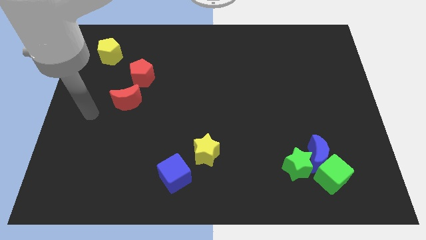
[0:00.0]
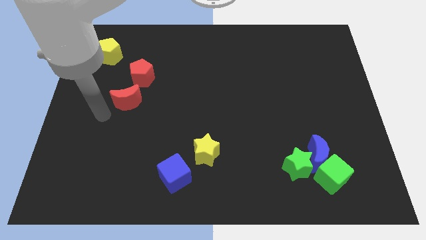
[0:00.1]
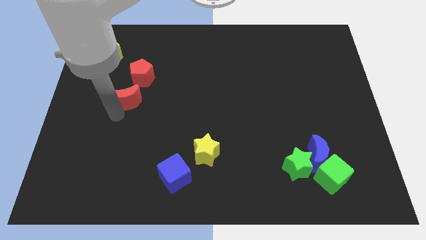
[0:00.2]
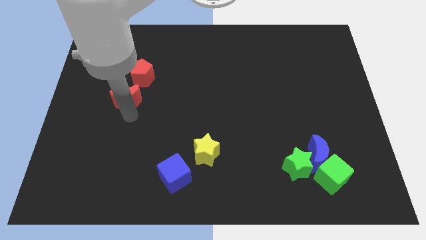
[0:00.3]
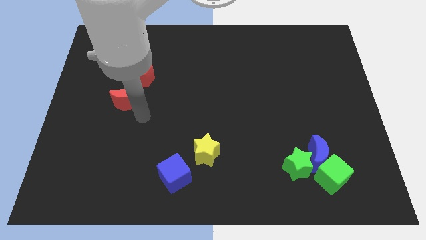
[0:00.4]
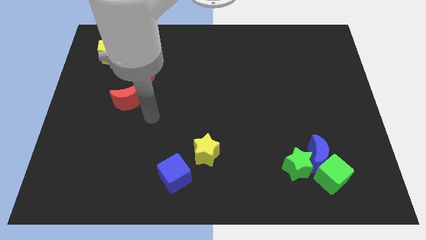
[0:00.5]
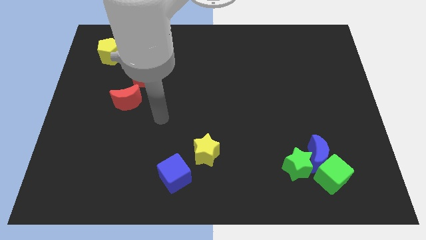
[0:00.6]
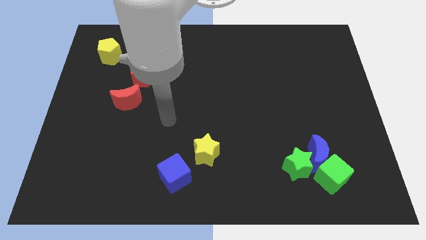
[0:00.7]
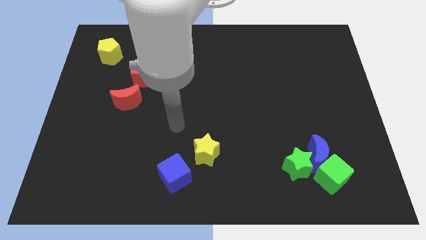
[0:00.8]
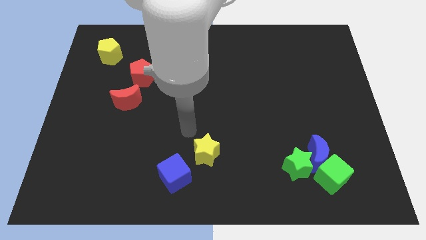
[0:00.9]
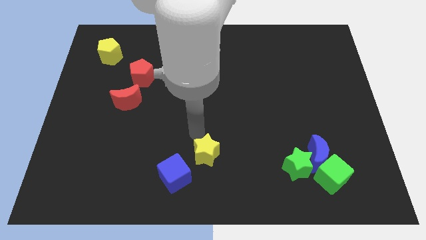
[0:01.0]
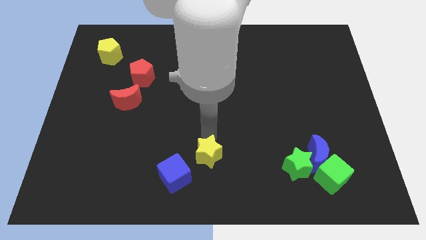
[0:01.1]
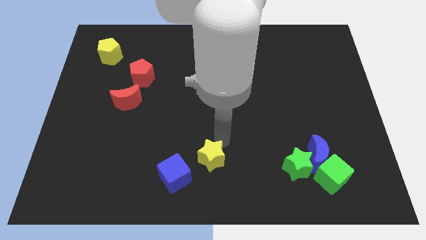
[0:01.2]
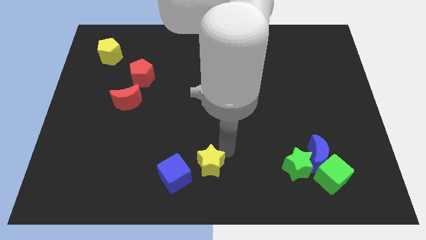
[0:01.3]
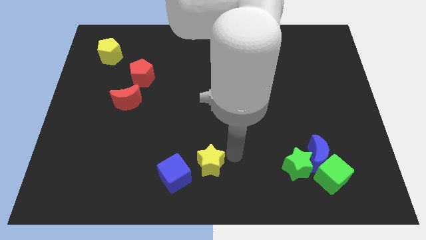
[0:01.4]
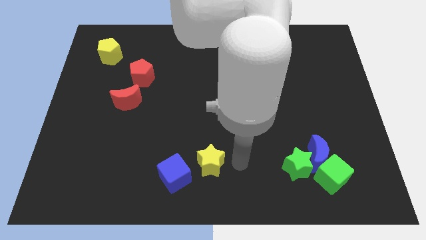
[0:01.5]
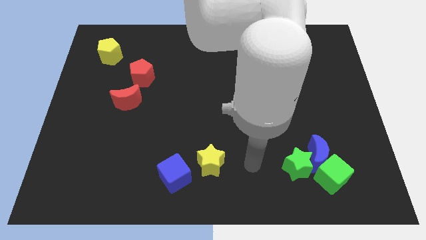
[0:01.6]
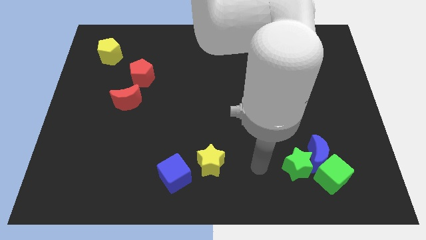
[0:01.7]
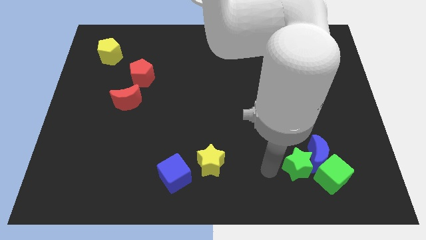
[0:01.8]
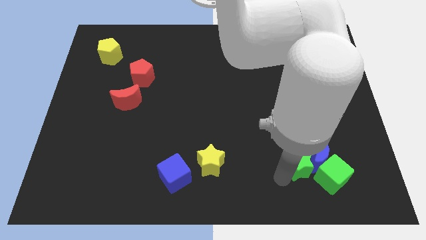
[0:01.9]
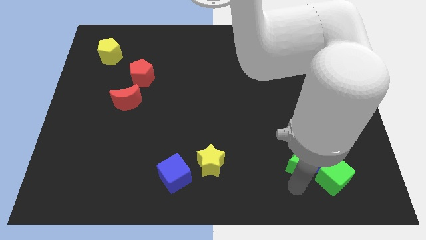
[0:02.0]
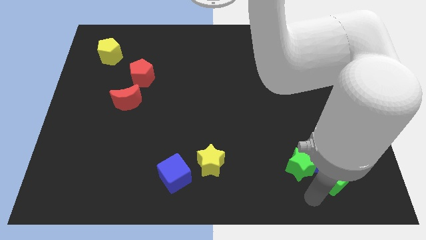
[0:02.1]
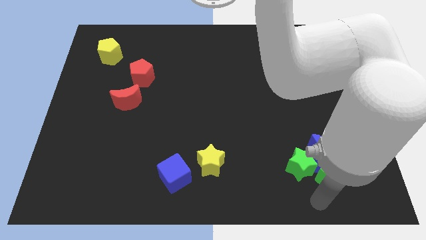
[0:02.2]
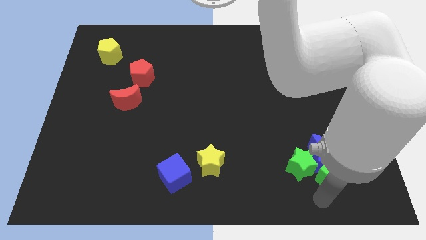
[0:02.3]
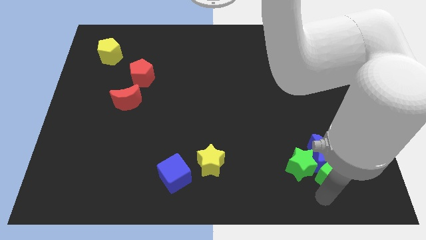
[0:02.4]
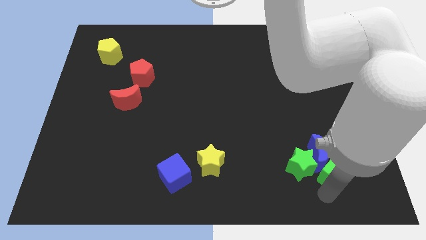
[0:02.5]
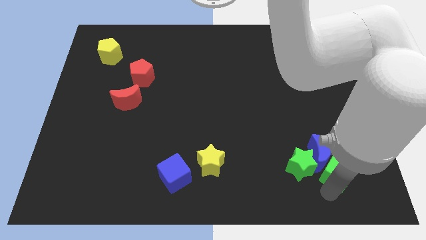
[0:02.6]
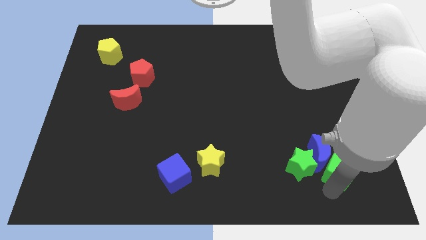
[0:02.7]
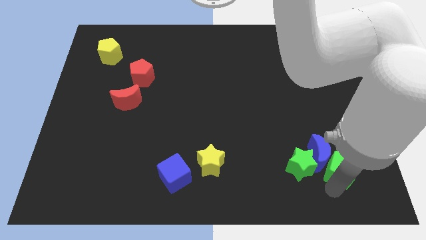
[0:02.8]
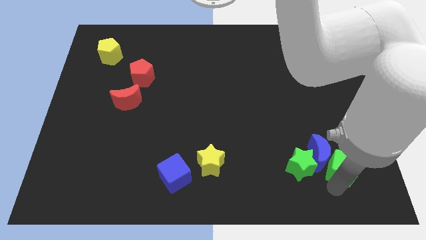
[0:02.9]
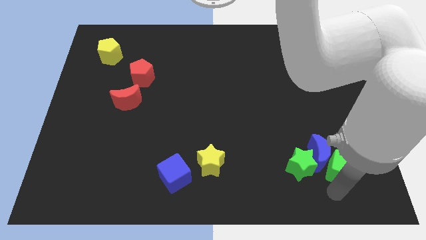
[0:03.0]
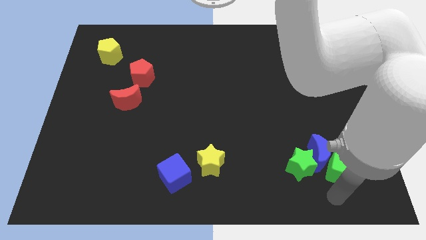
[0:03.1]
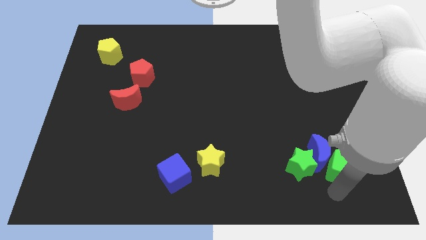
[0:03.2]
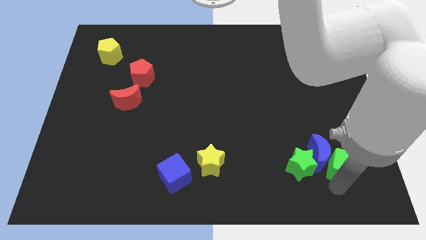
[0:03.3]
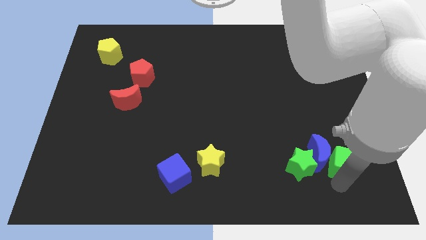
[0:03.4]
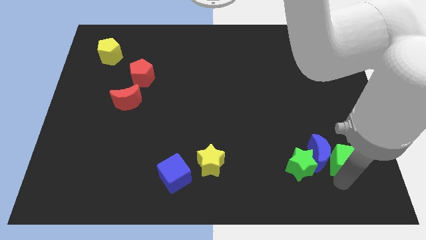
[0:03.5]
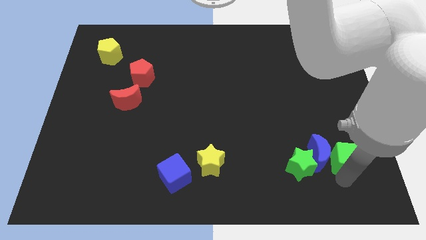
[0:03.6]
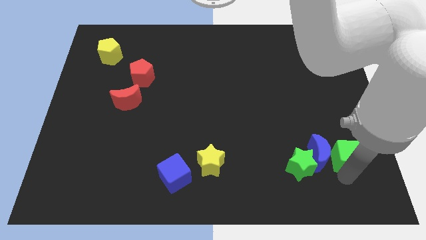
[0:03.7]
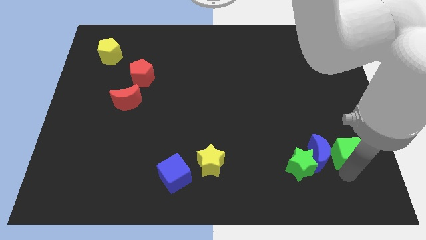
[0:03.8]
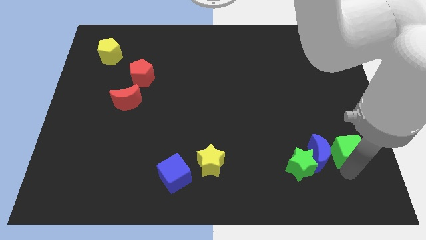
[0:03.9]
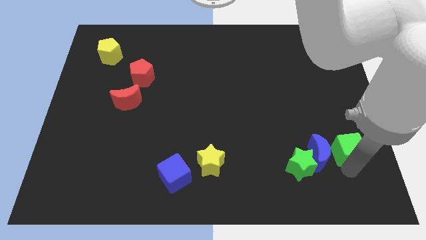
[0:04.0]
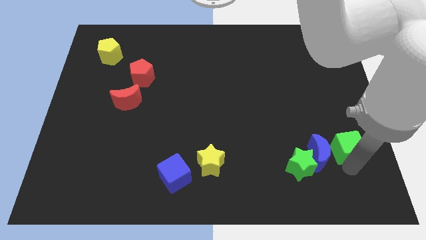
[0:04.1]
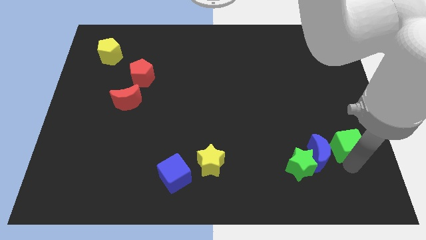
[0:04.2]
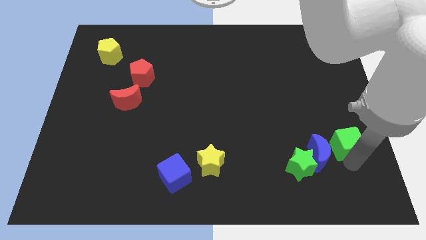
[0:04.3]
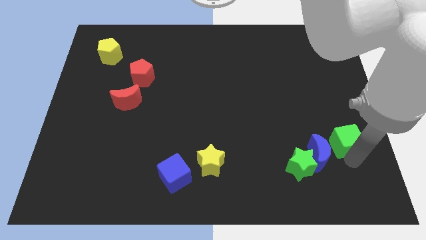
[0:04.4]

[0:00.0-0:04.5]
slightly slide the green cube up

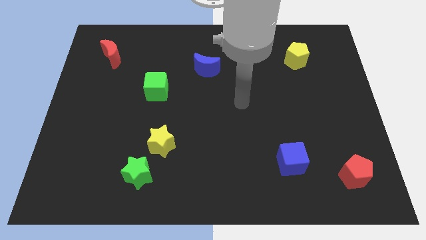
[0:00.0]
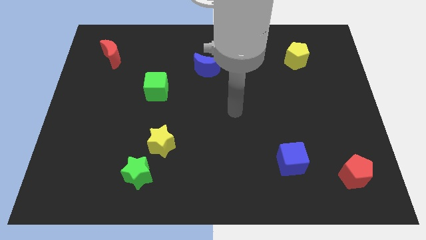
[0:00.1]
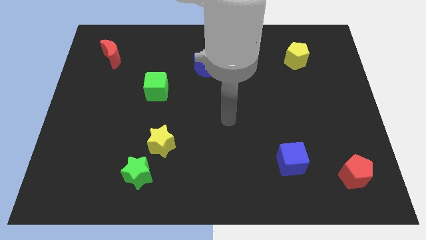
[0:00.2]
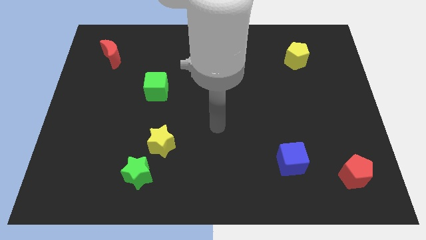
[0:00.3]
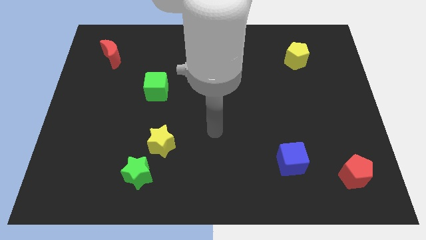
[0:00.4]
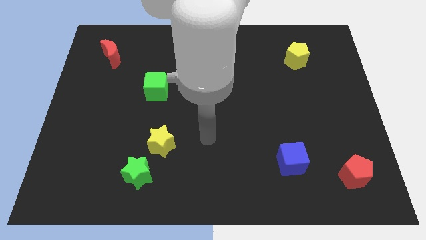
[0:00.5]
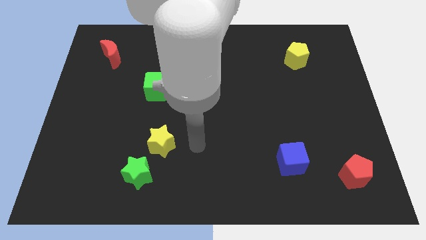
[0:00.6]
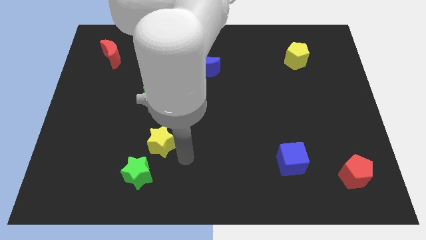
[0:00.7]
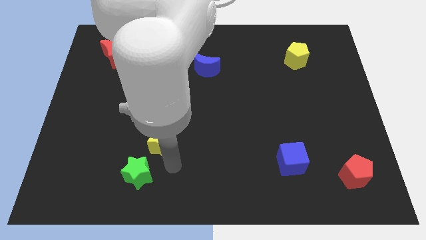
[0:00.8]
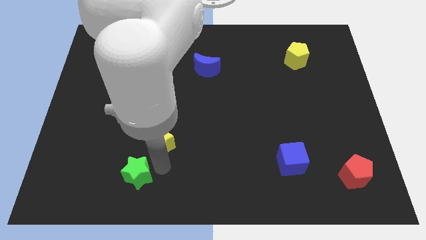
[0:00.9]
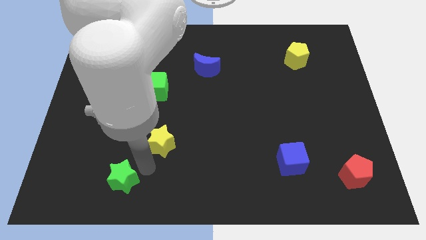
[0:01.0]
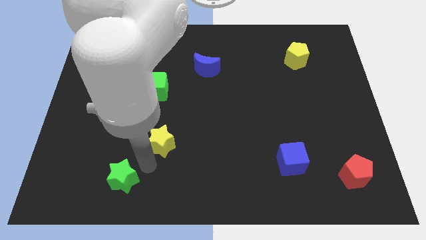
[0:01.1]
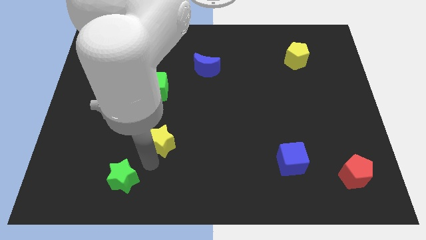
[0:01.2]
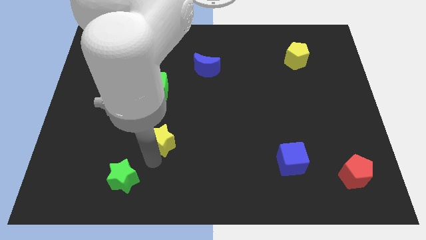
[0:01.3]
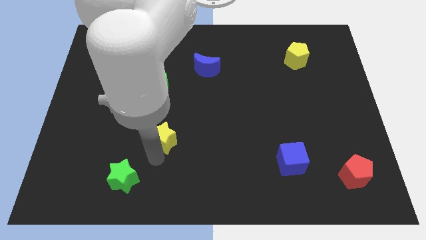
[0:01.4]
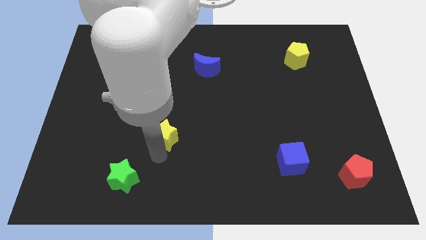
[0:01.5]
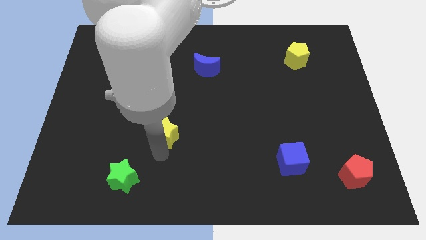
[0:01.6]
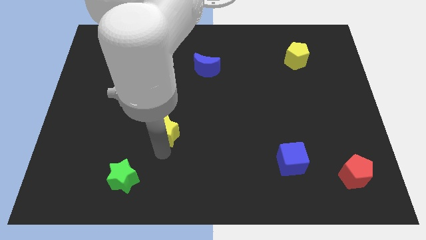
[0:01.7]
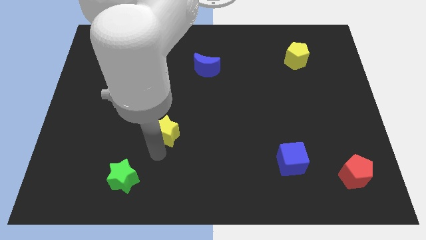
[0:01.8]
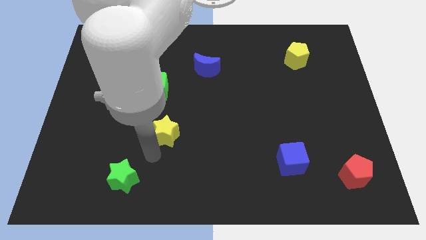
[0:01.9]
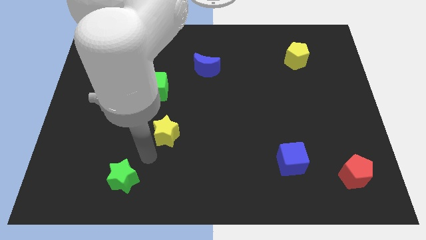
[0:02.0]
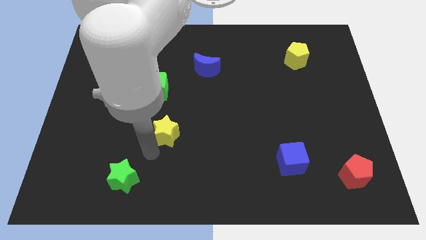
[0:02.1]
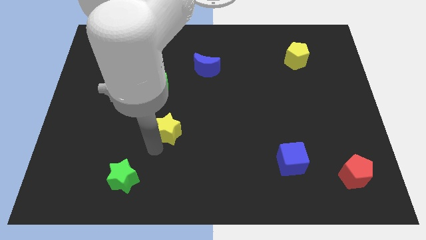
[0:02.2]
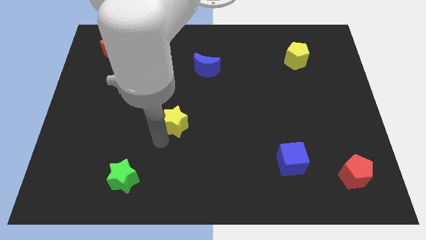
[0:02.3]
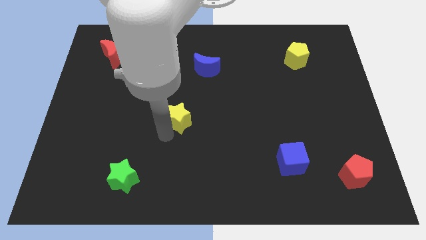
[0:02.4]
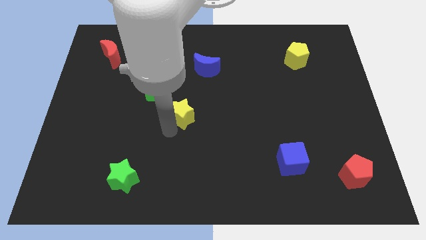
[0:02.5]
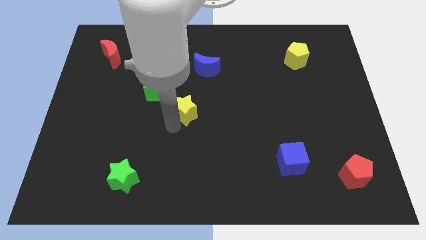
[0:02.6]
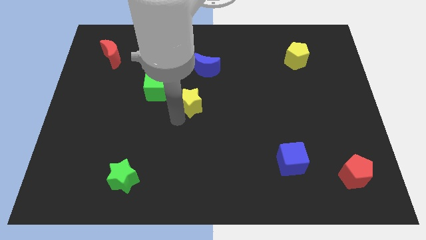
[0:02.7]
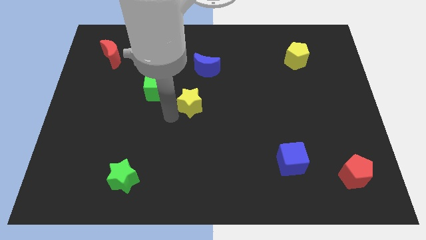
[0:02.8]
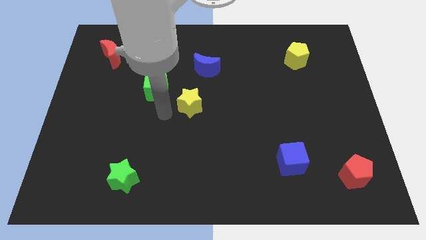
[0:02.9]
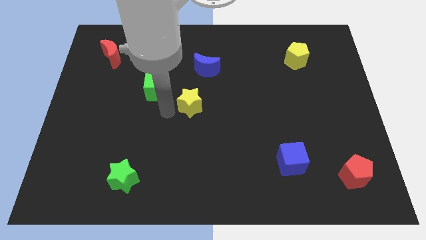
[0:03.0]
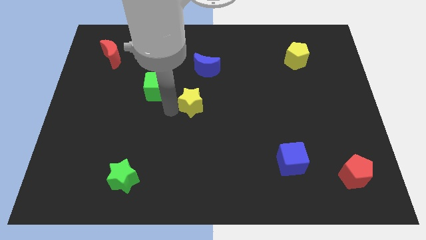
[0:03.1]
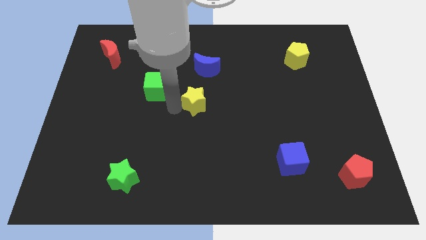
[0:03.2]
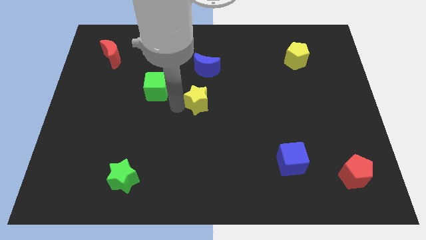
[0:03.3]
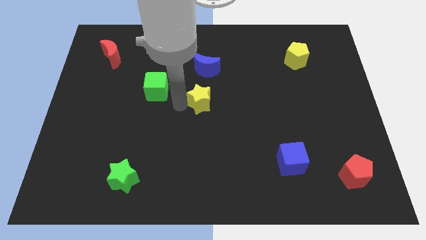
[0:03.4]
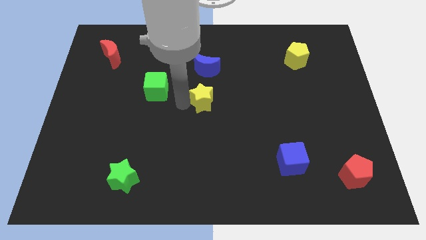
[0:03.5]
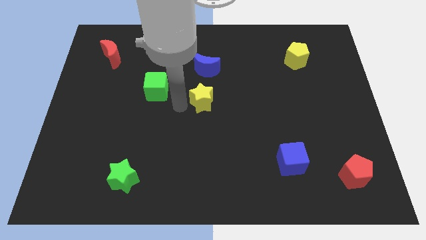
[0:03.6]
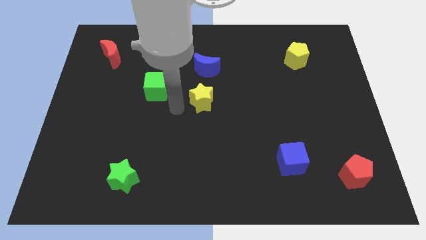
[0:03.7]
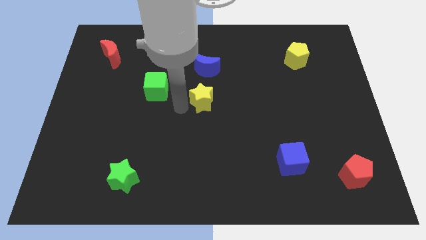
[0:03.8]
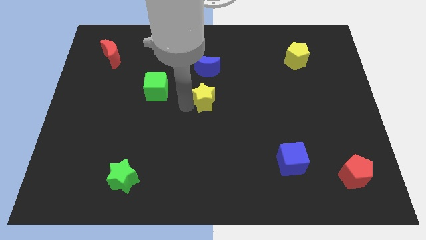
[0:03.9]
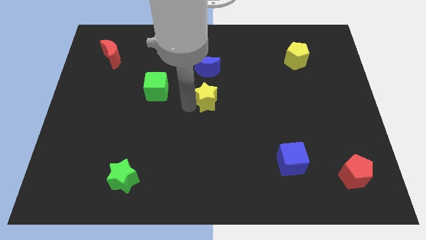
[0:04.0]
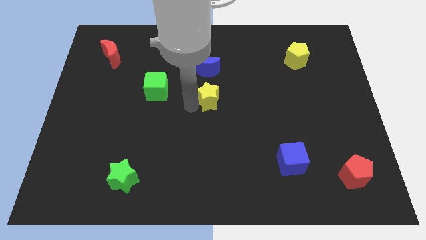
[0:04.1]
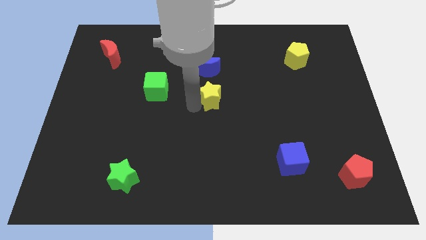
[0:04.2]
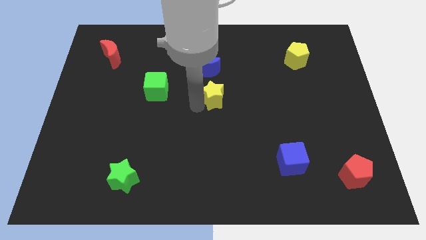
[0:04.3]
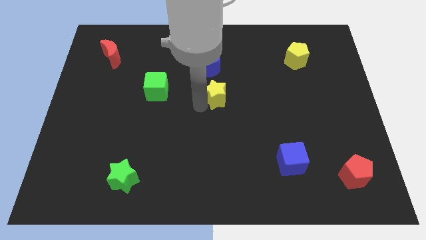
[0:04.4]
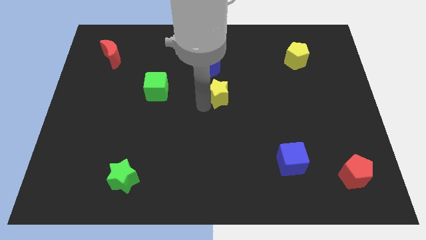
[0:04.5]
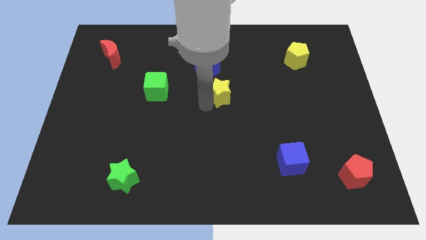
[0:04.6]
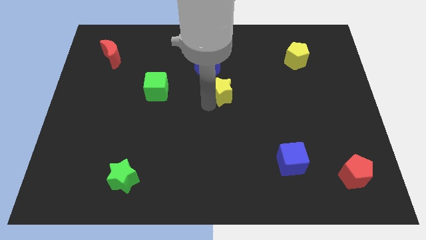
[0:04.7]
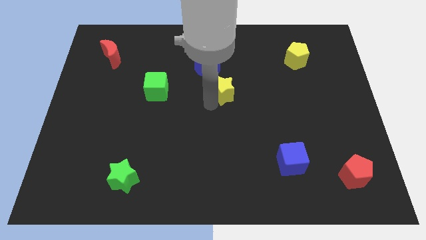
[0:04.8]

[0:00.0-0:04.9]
move the yellow star up and right
